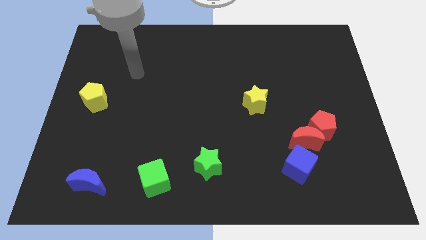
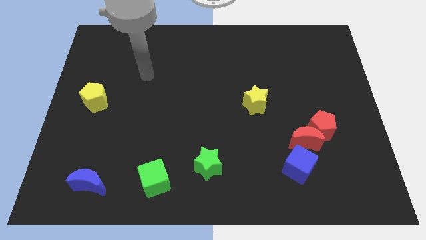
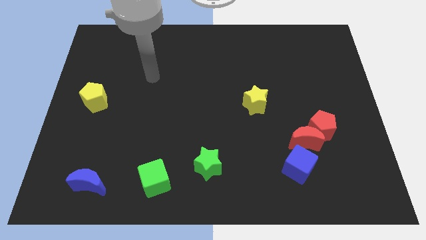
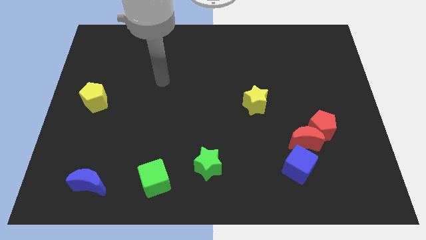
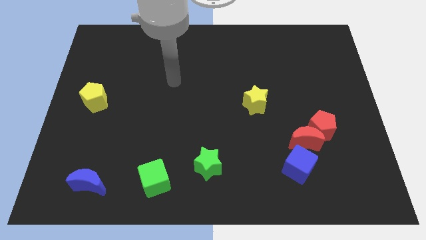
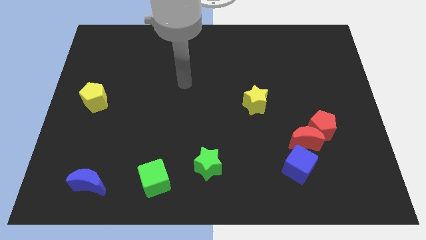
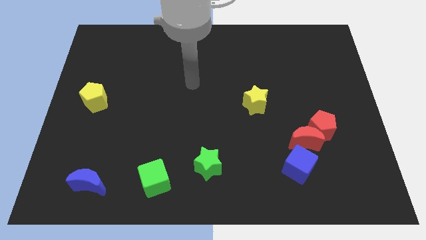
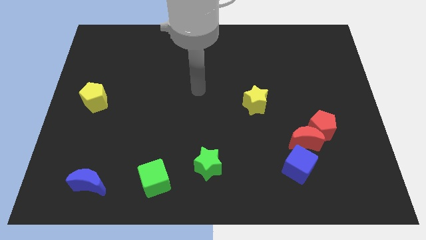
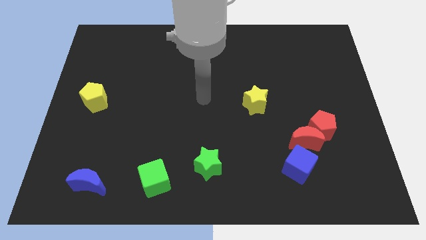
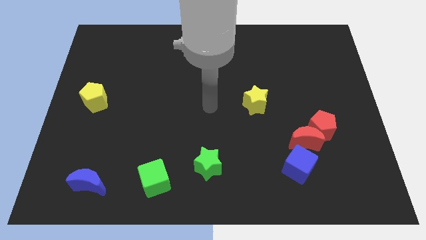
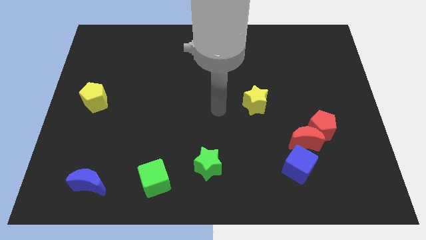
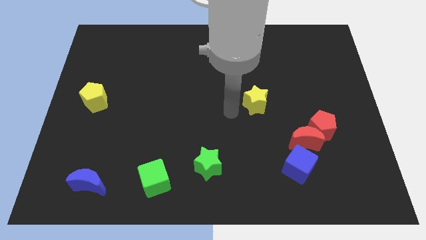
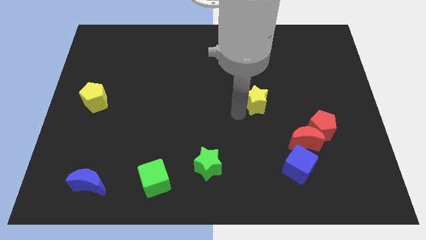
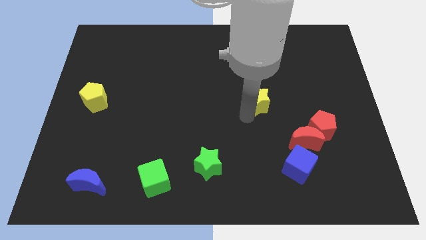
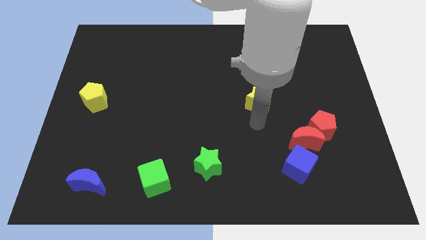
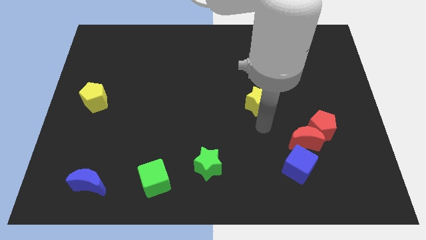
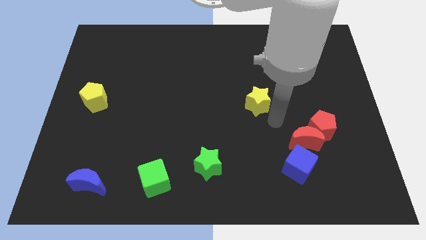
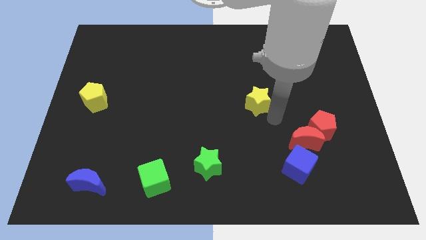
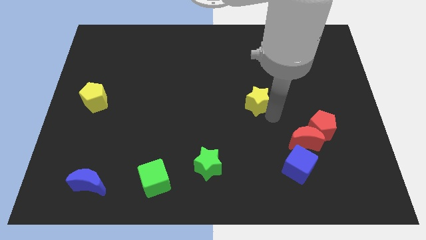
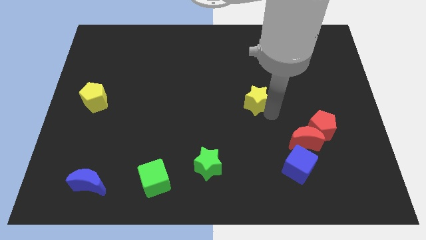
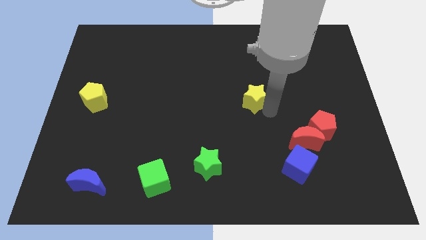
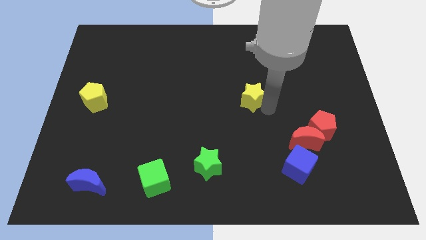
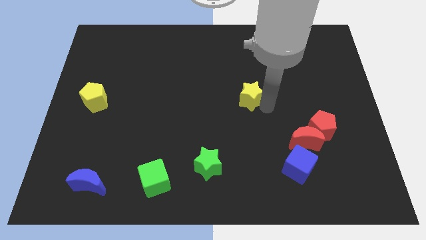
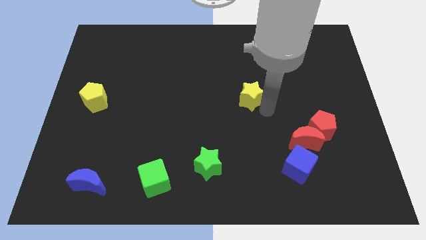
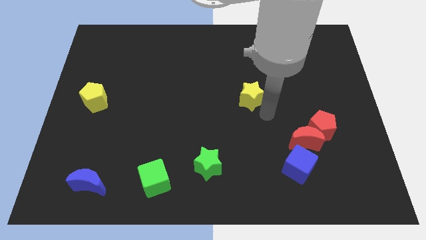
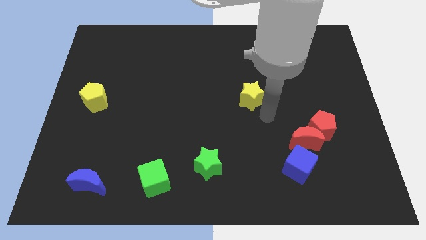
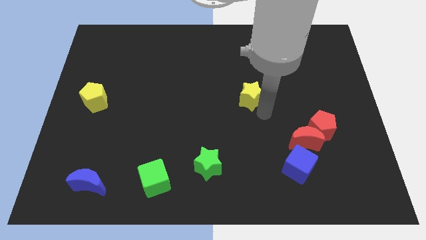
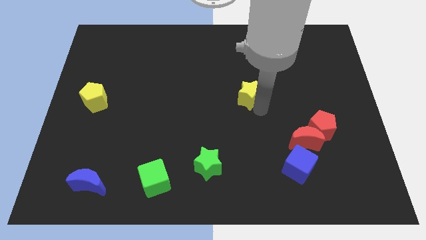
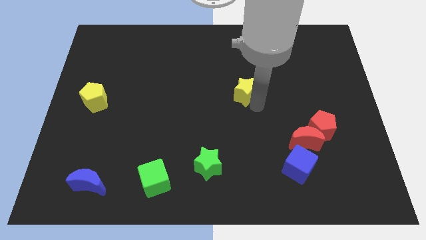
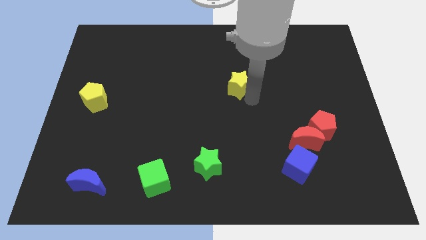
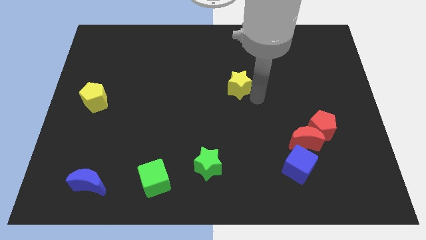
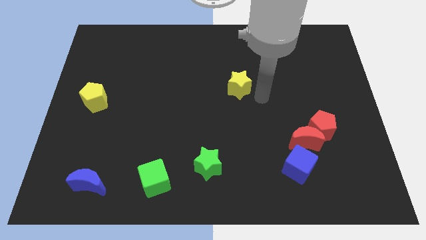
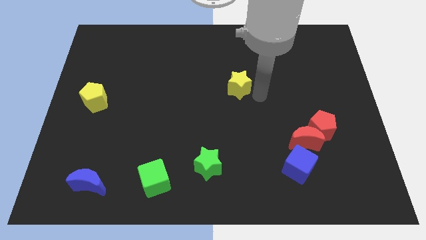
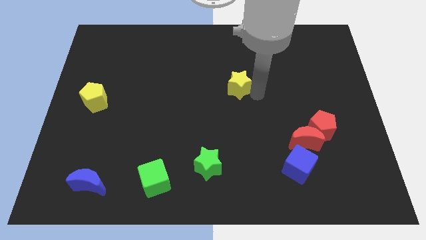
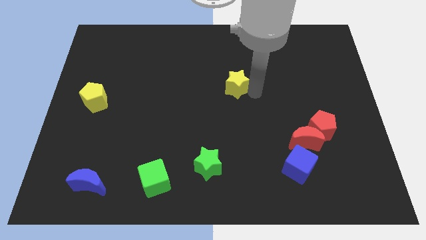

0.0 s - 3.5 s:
slide the yellow star slightly up and to the left

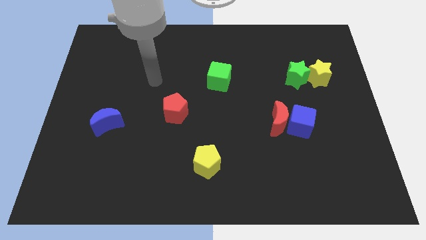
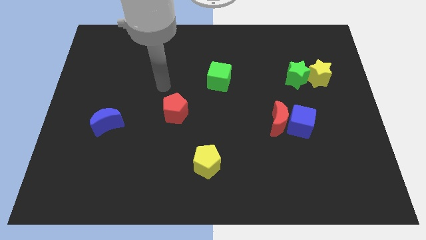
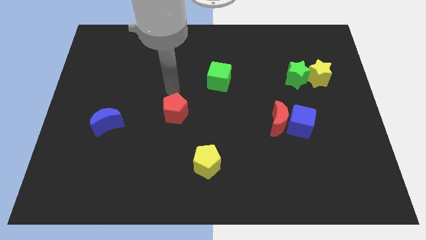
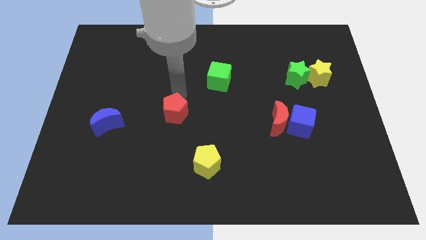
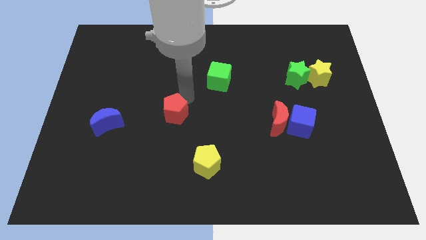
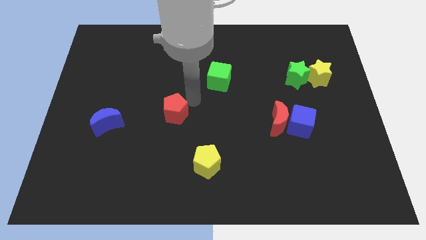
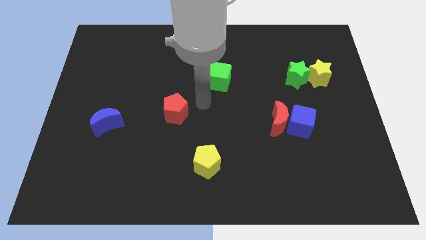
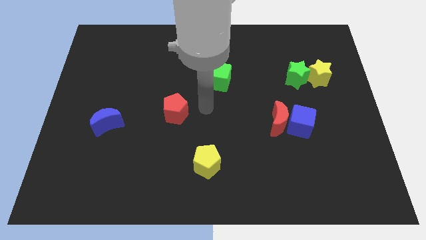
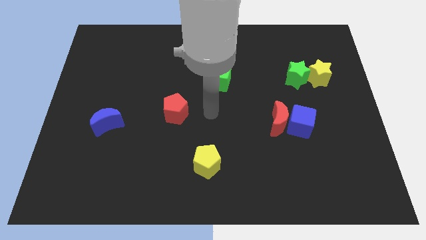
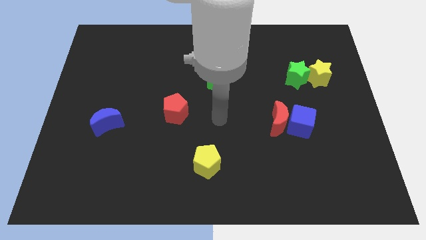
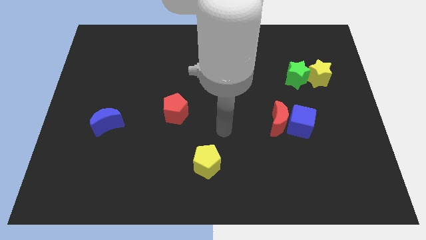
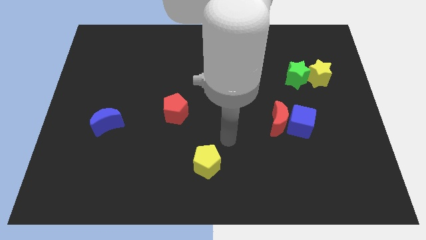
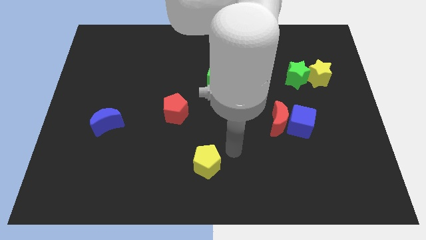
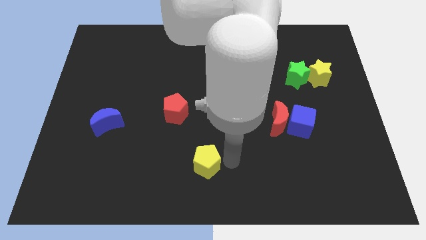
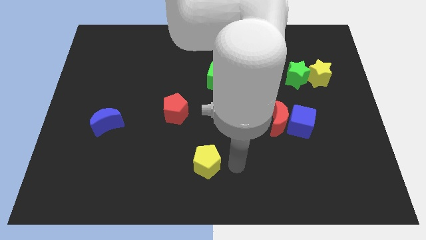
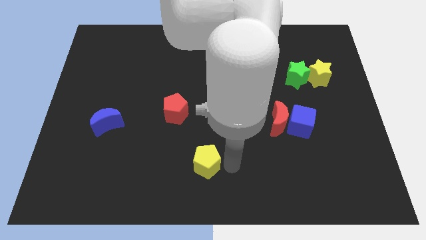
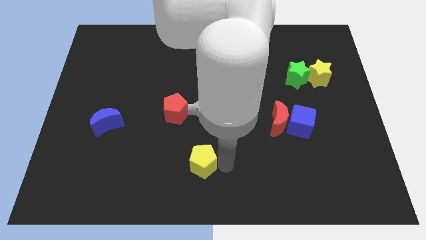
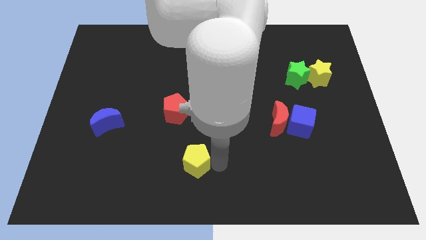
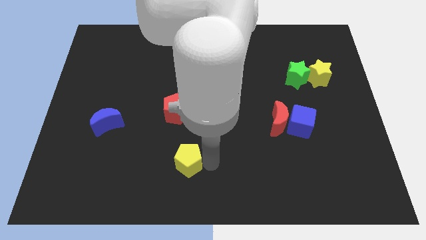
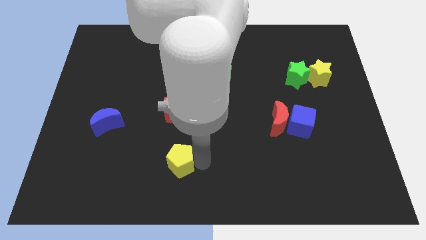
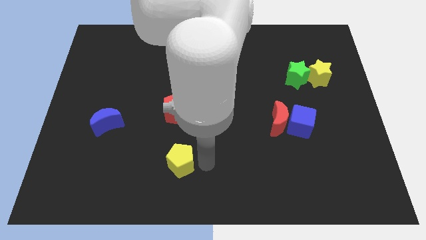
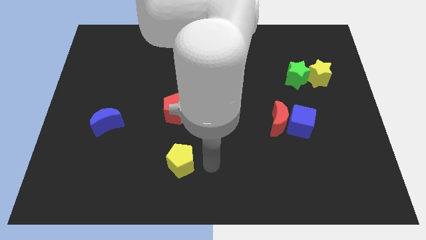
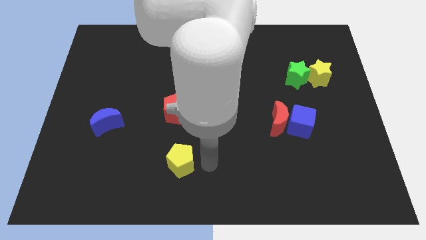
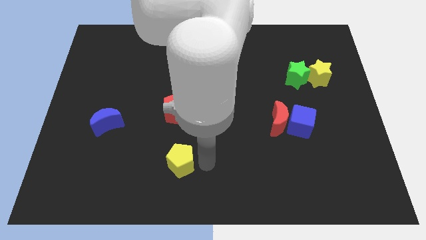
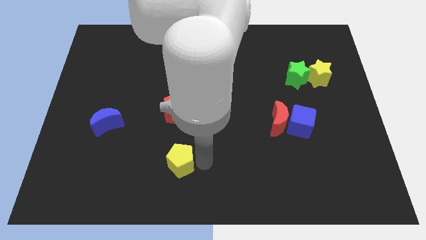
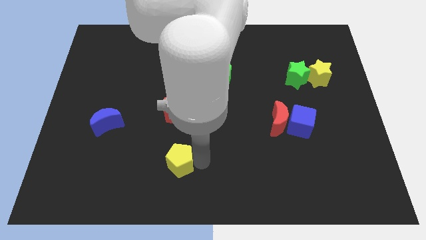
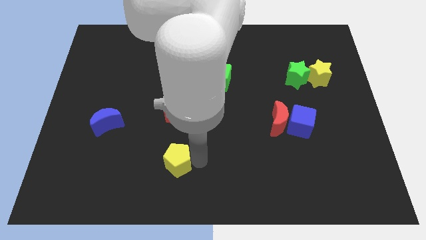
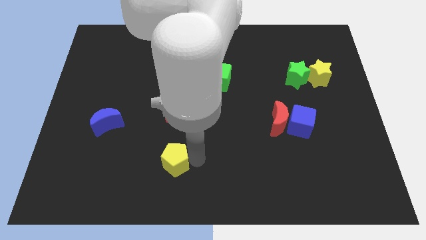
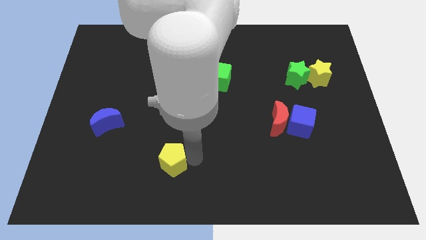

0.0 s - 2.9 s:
slide the yellow pentagon somewhat left

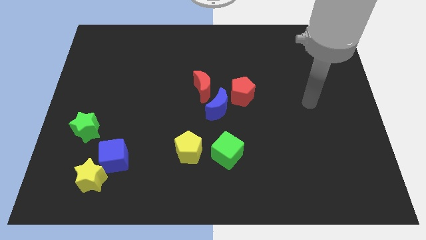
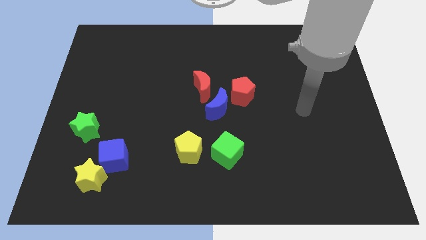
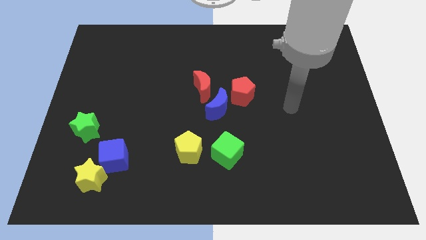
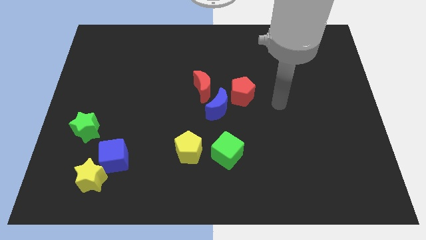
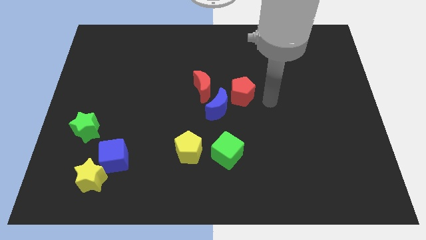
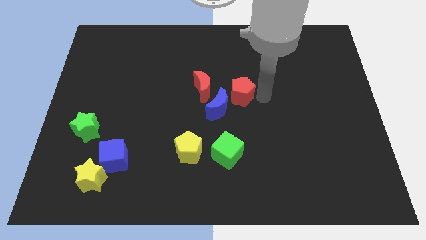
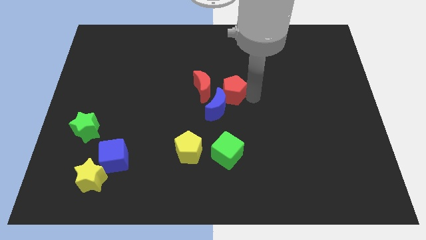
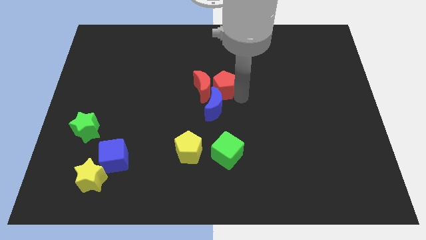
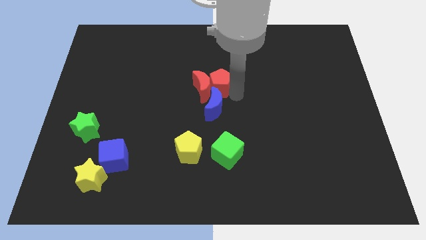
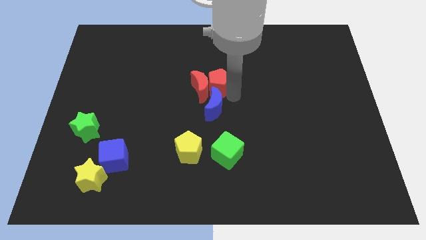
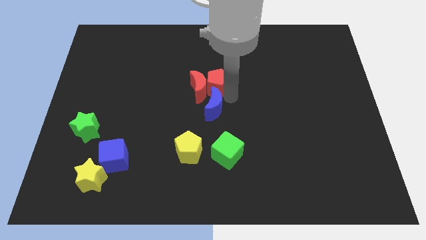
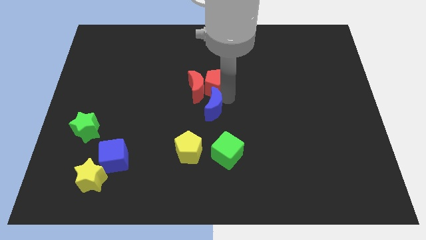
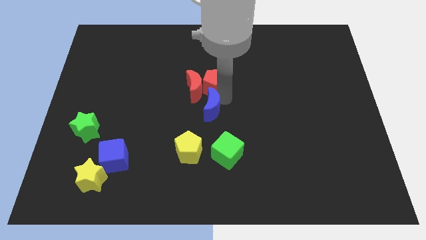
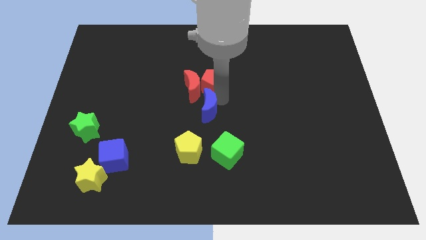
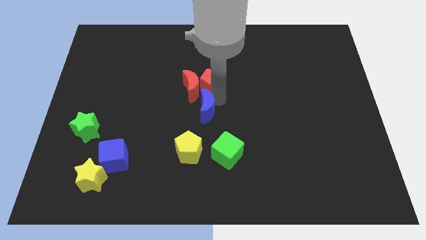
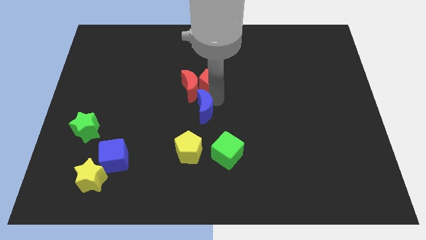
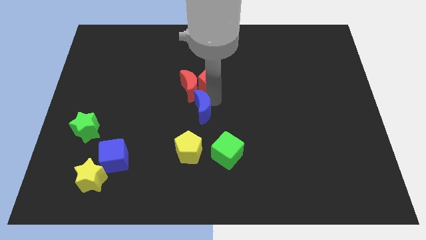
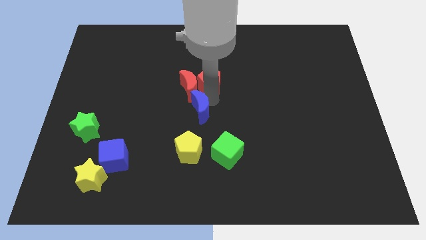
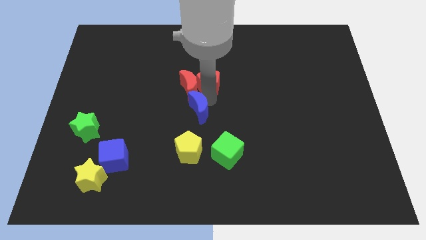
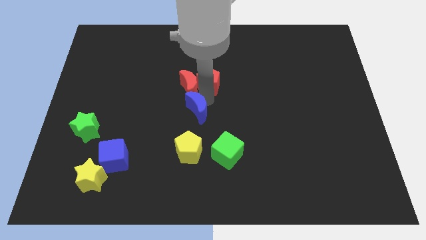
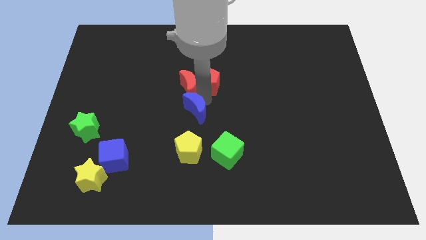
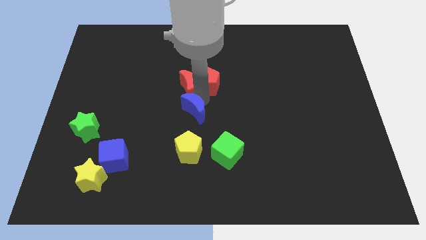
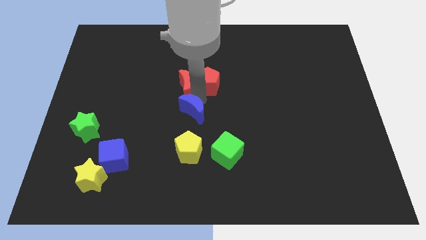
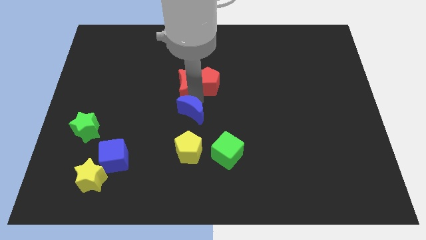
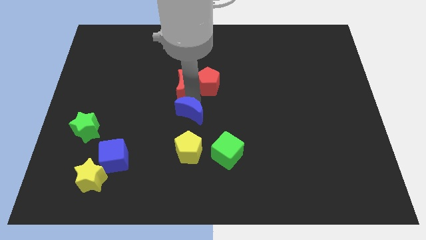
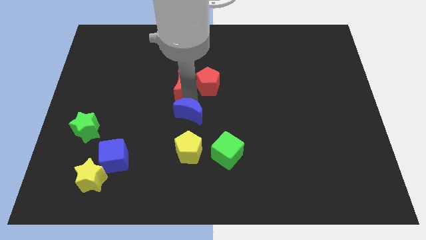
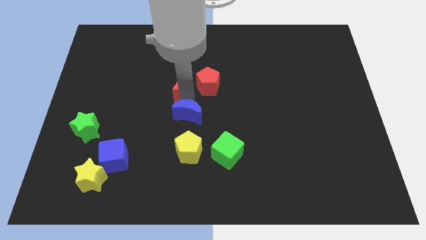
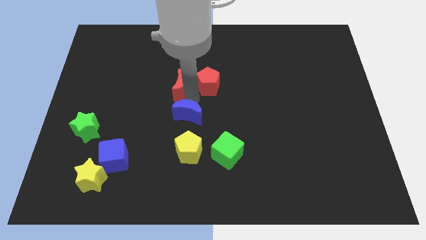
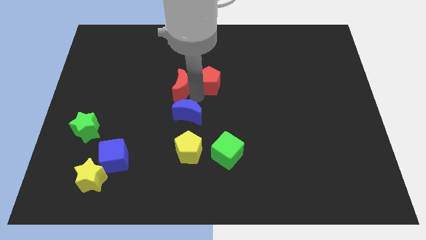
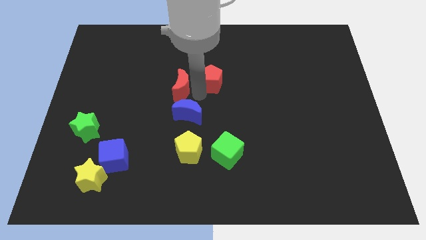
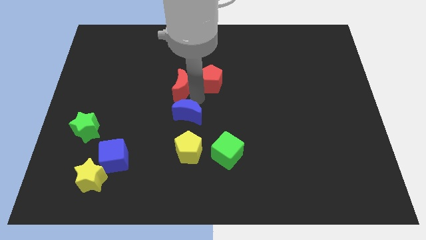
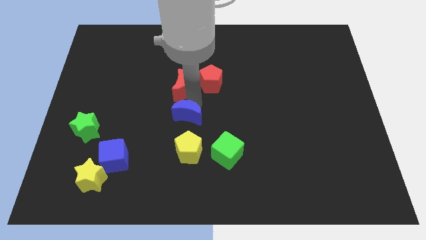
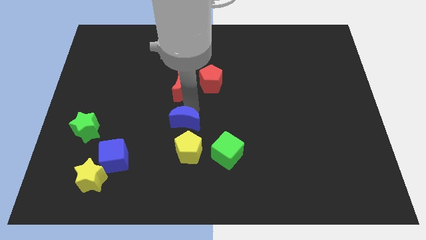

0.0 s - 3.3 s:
move the blue moon downwards and left diagonally a little
